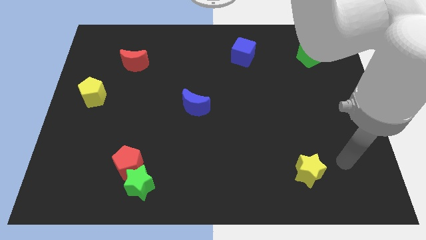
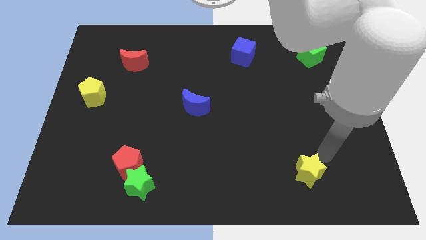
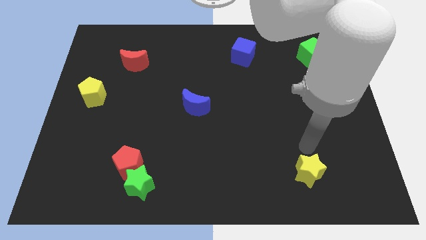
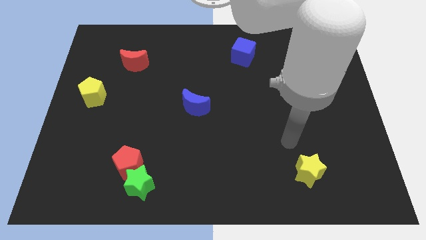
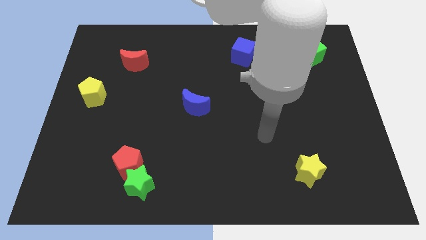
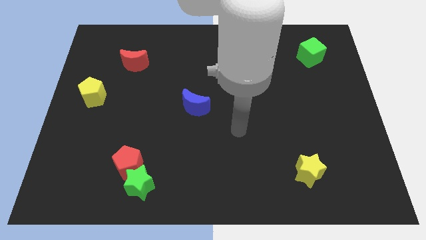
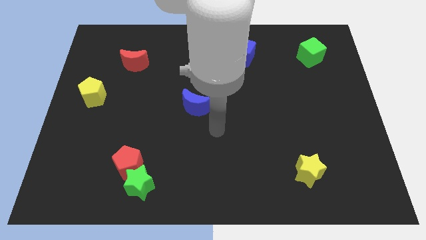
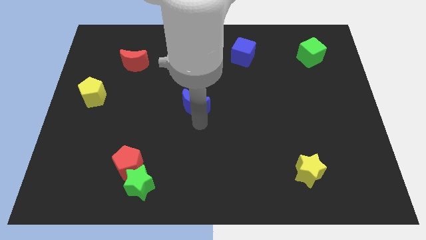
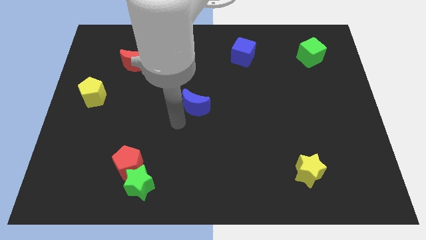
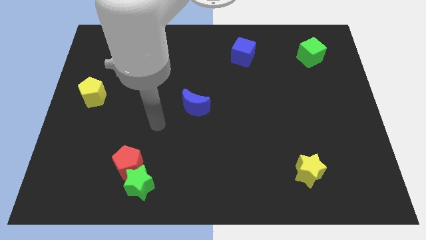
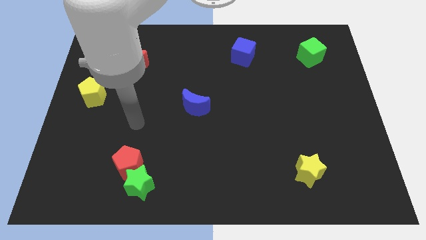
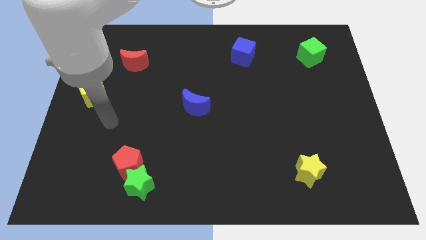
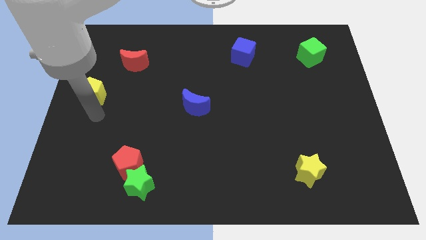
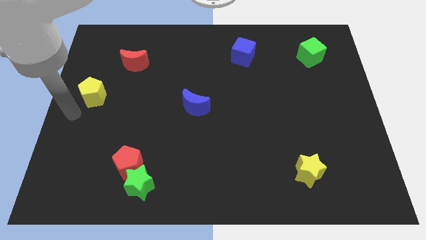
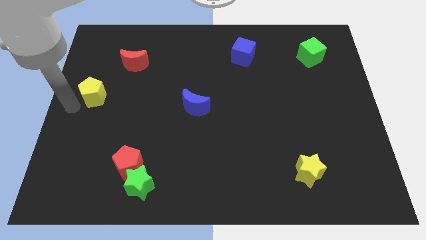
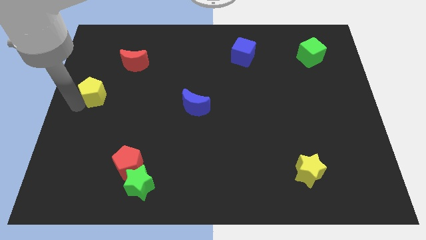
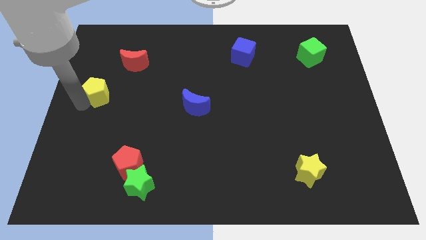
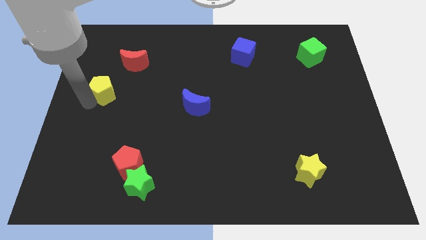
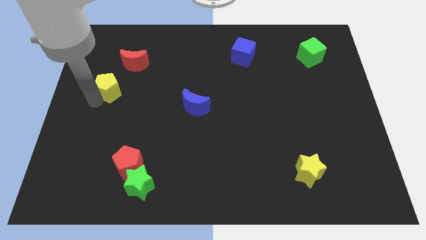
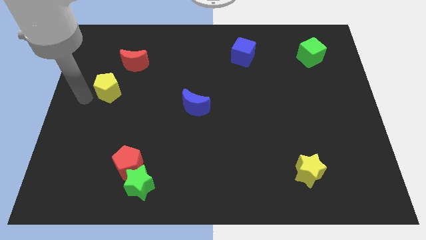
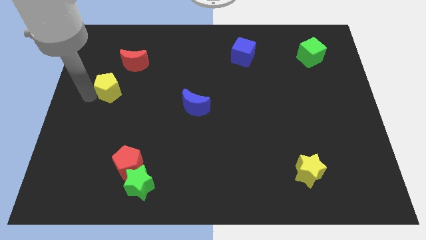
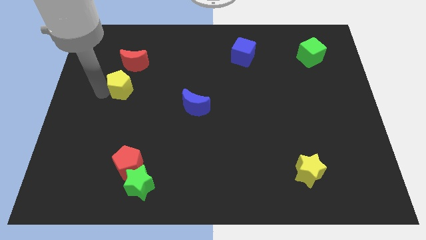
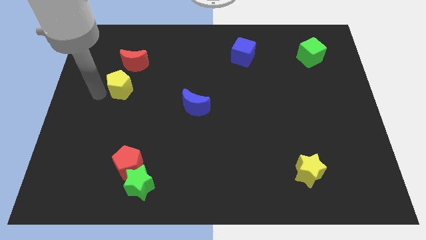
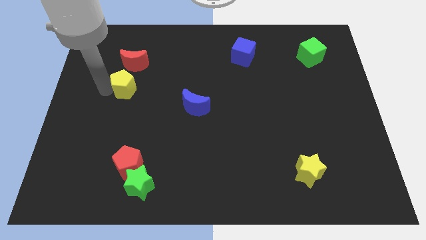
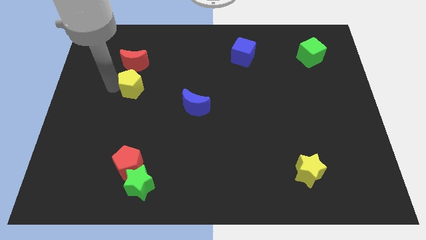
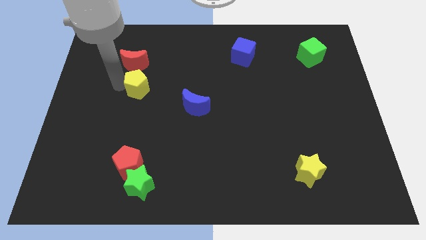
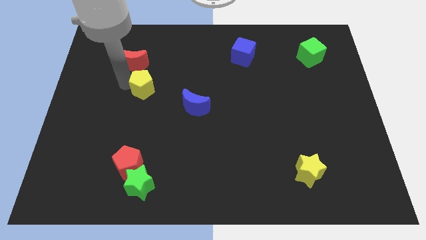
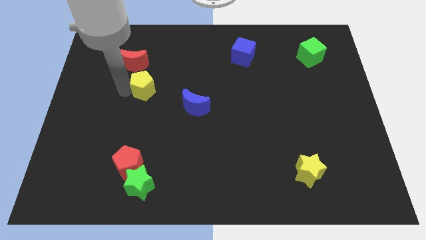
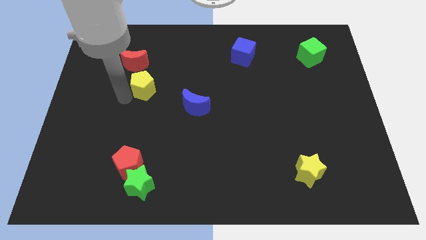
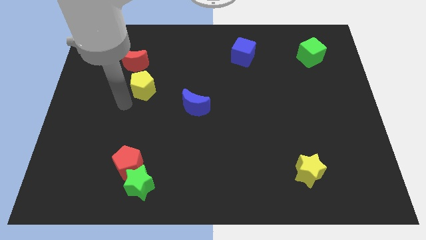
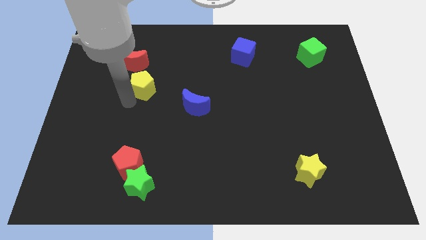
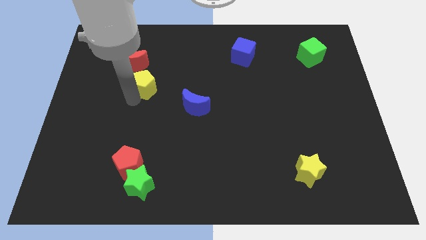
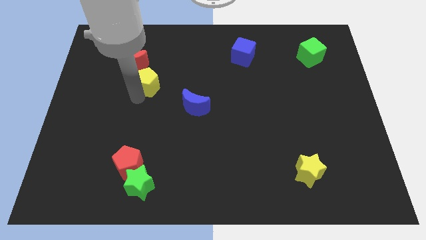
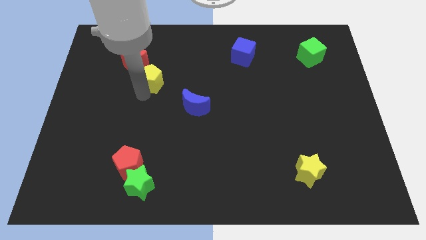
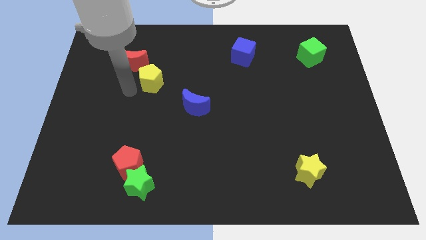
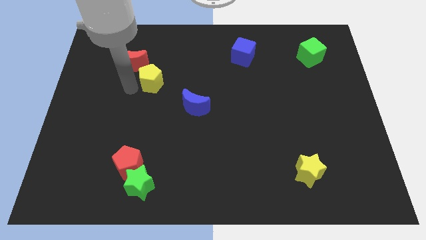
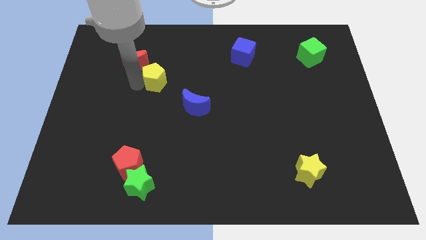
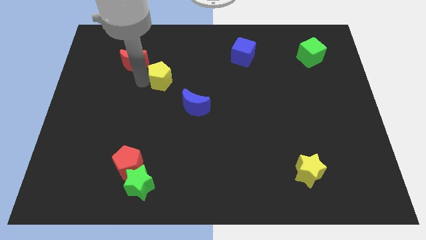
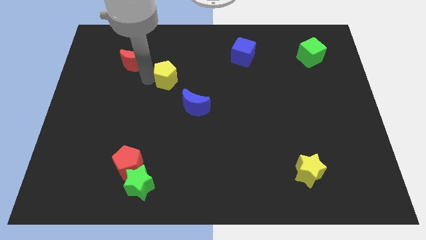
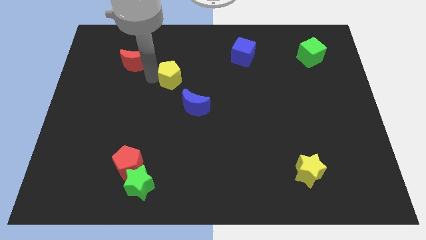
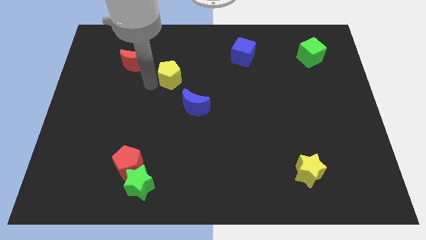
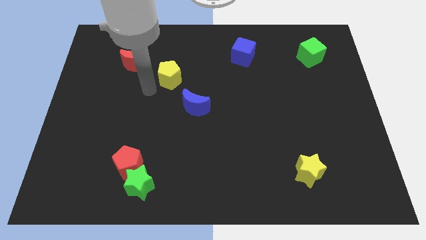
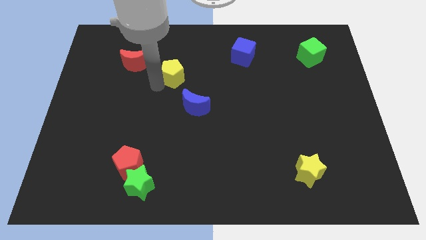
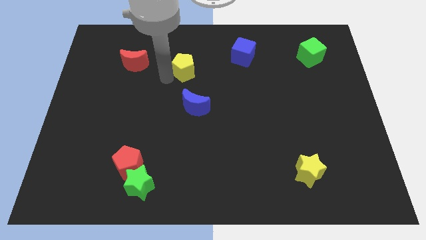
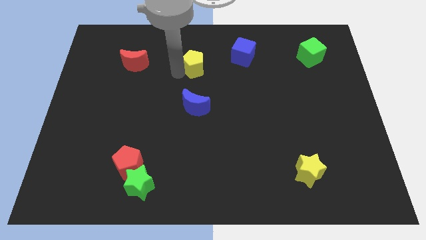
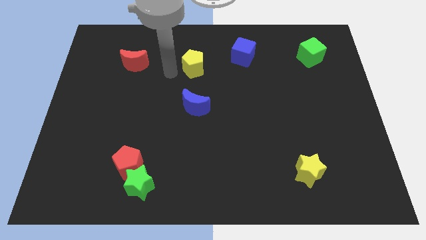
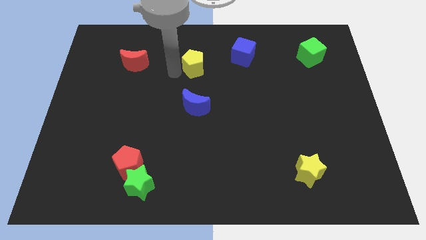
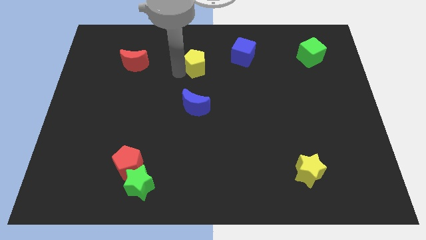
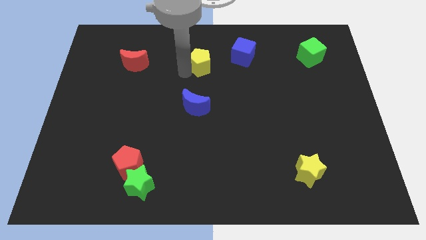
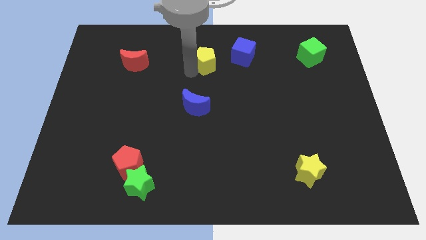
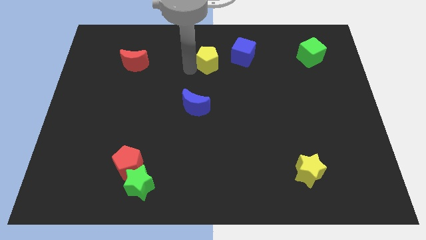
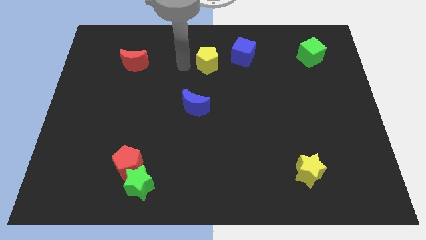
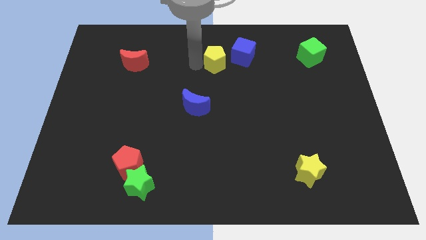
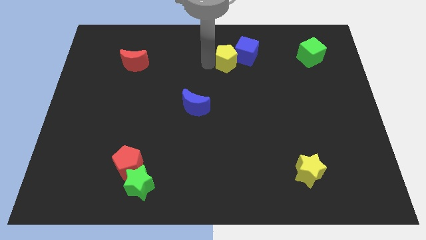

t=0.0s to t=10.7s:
slide the yellow pentagon close to the blue cube

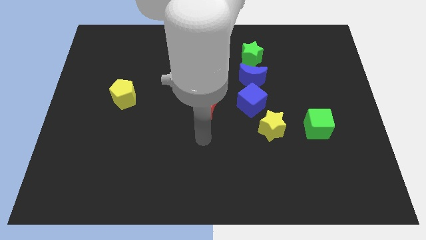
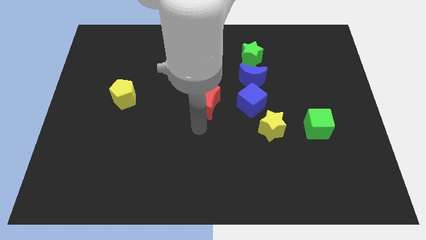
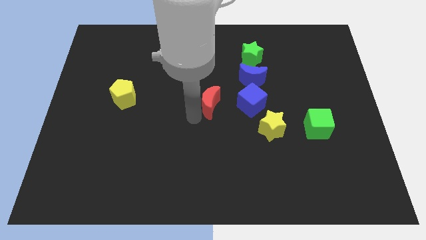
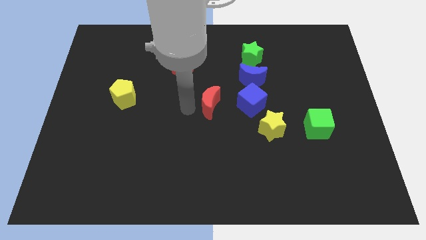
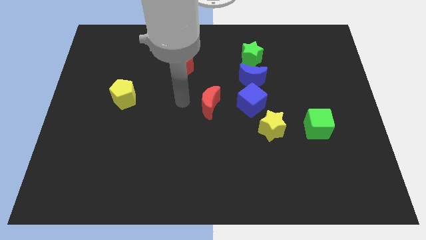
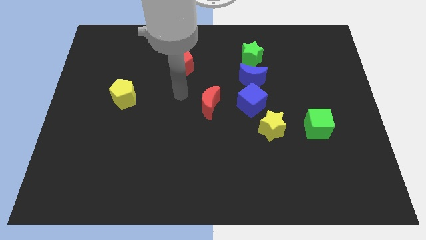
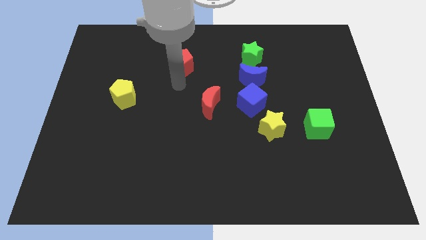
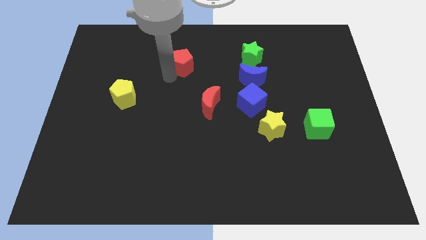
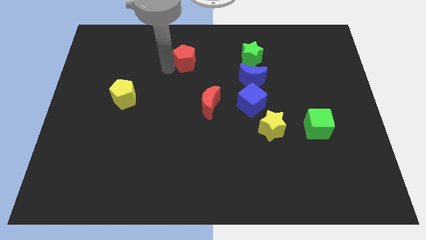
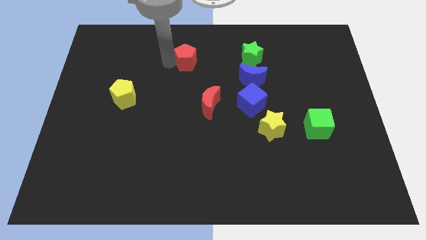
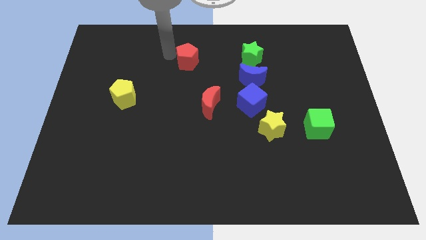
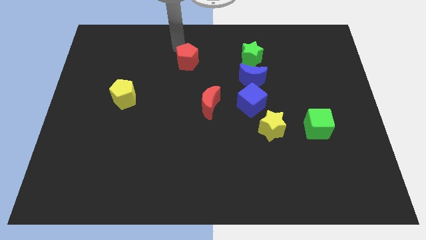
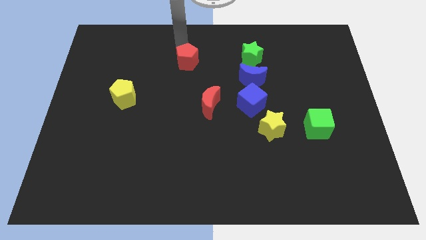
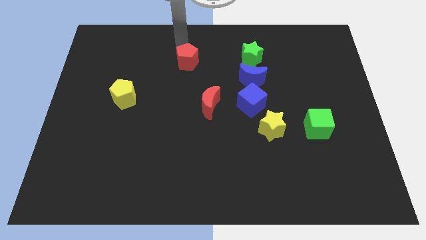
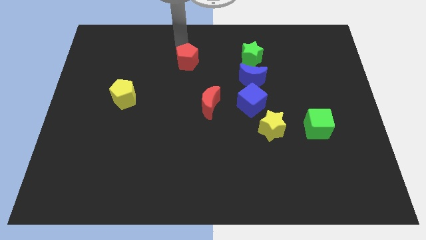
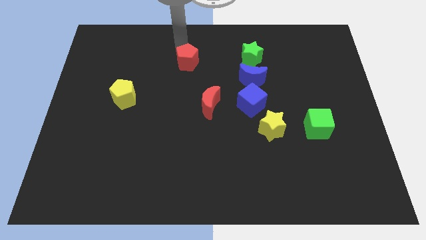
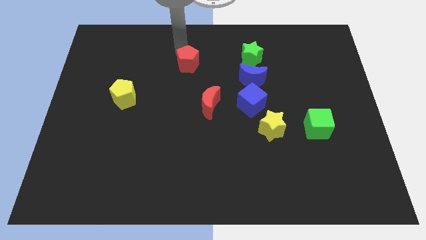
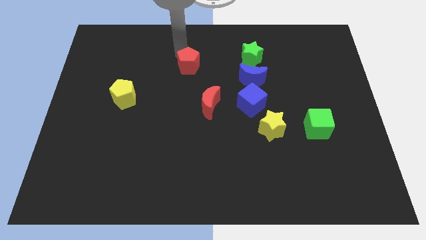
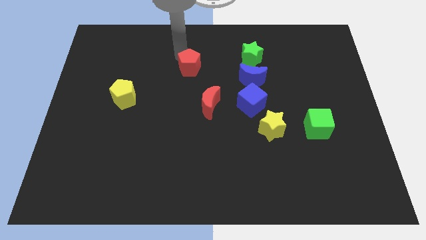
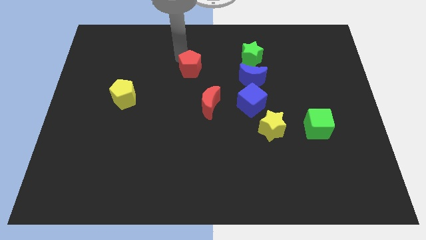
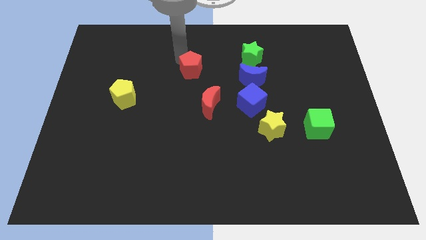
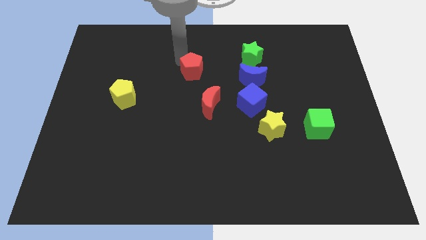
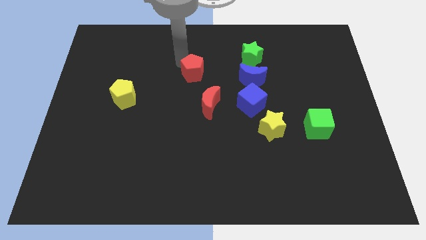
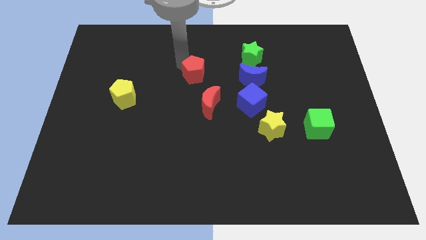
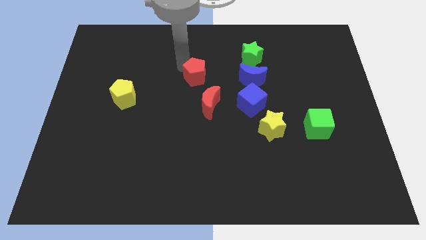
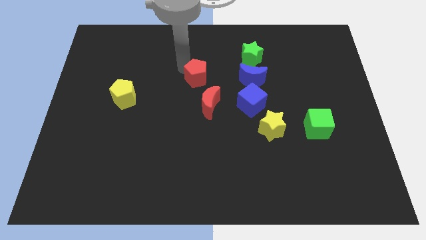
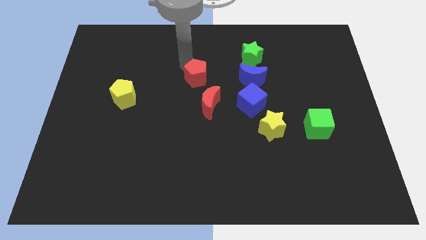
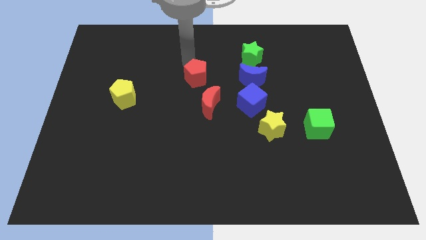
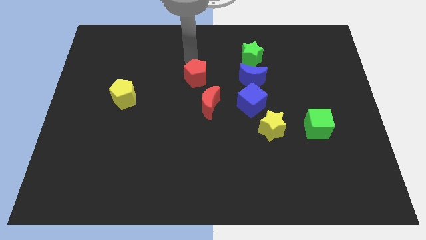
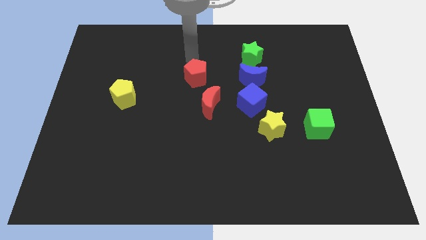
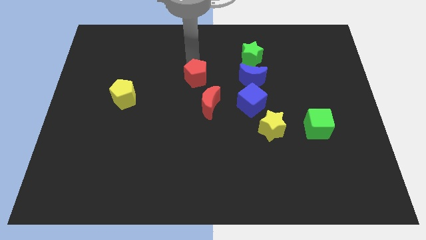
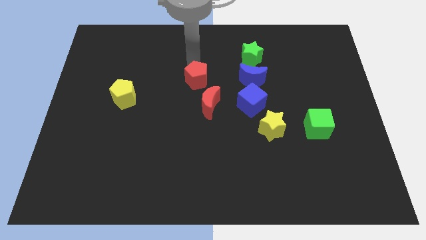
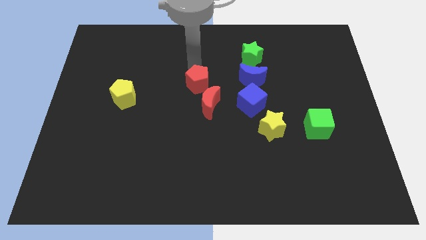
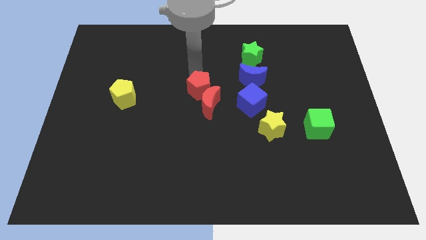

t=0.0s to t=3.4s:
push the red pentagon to the red moon
